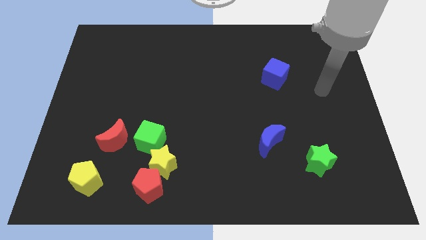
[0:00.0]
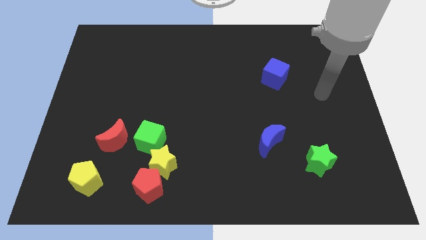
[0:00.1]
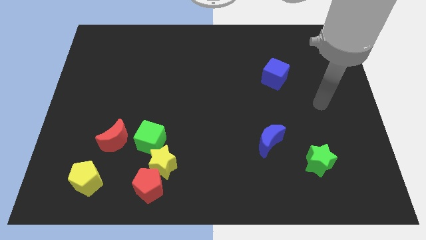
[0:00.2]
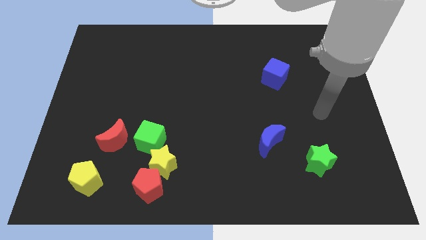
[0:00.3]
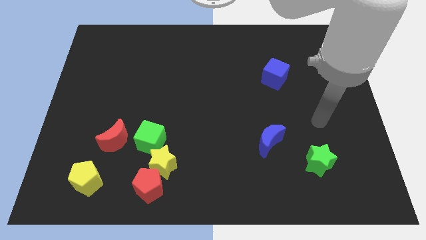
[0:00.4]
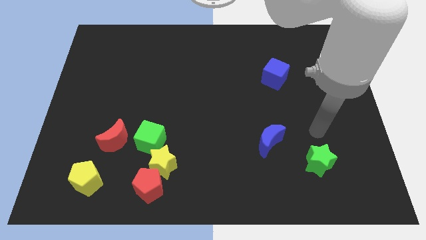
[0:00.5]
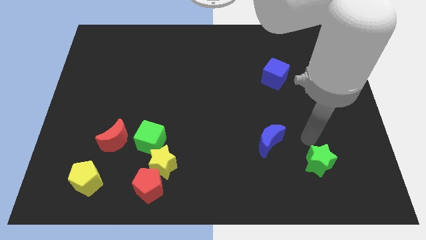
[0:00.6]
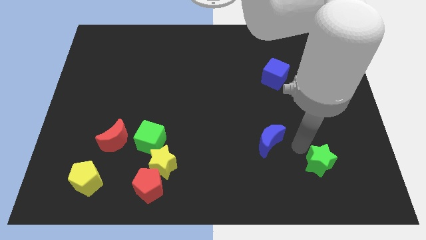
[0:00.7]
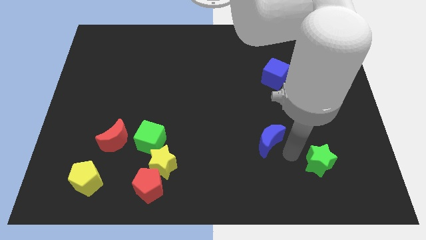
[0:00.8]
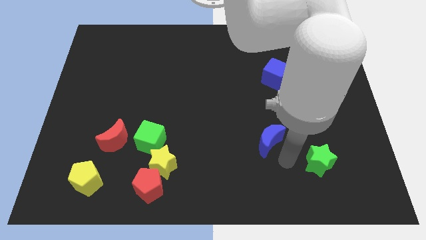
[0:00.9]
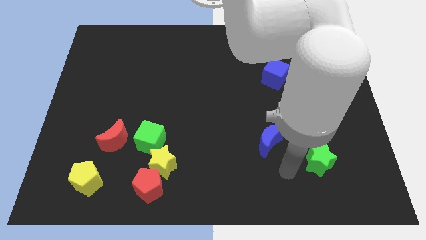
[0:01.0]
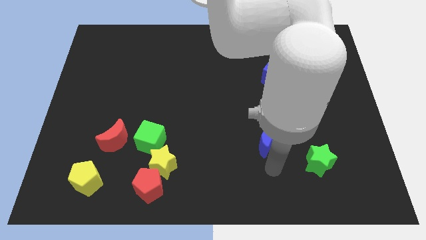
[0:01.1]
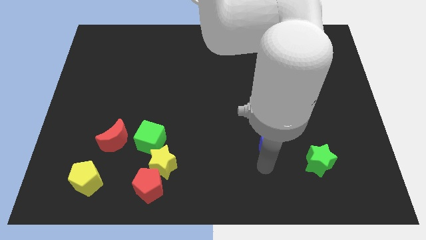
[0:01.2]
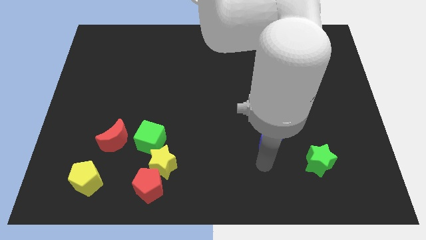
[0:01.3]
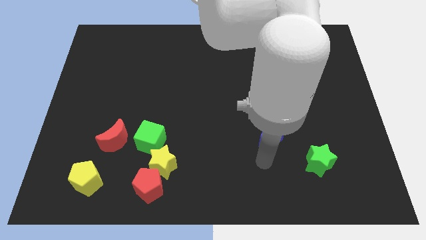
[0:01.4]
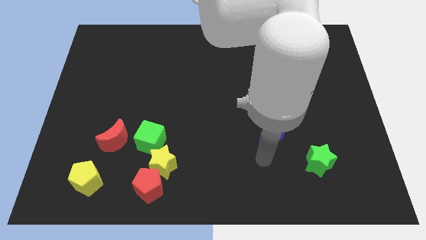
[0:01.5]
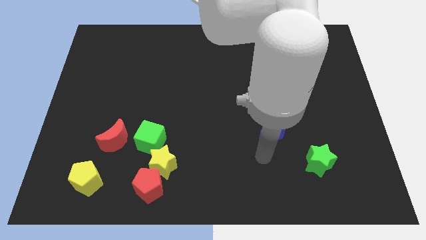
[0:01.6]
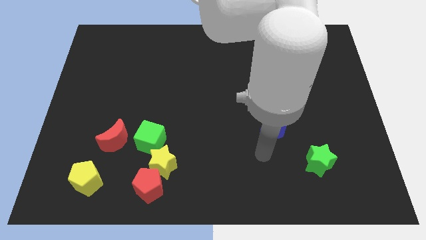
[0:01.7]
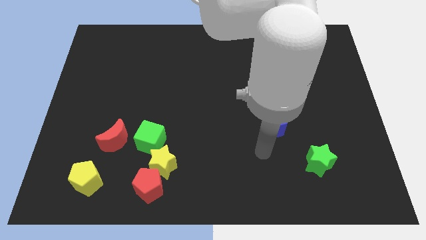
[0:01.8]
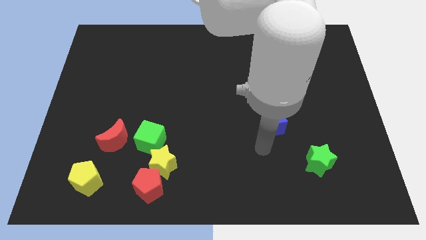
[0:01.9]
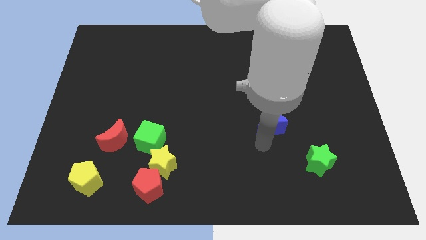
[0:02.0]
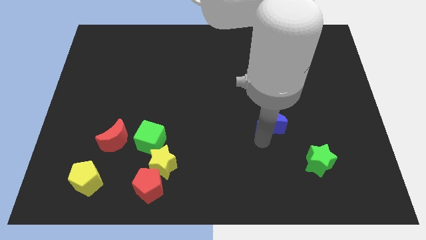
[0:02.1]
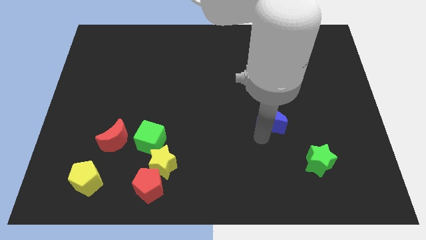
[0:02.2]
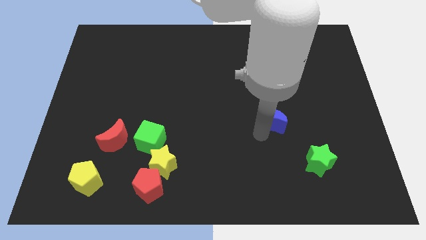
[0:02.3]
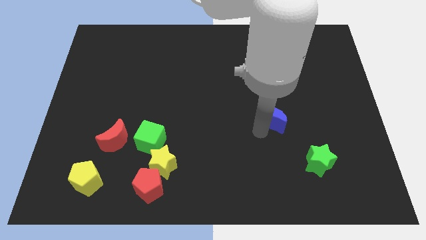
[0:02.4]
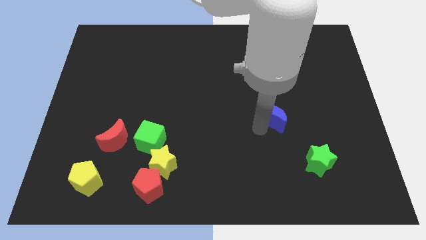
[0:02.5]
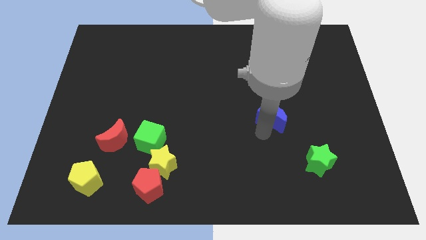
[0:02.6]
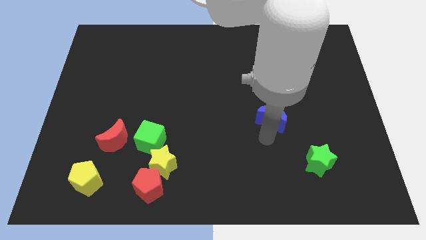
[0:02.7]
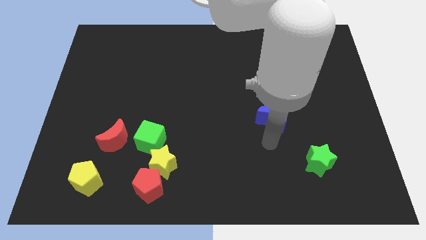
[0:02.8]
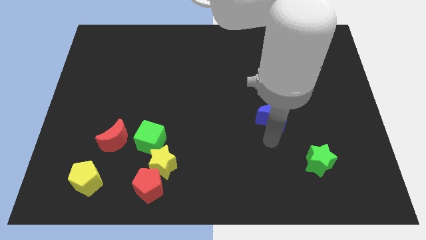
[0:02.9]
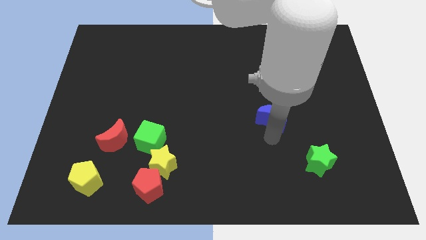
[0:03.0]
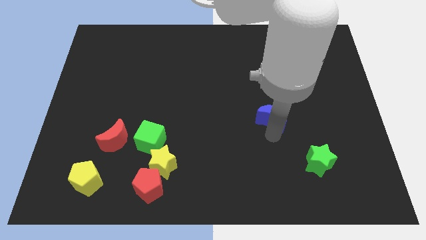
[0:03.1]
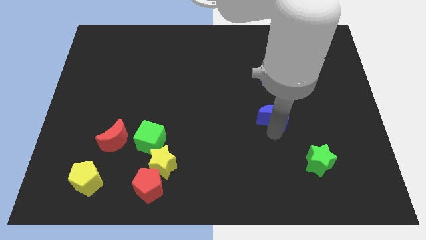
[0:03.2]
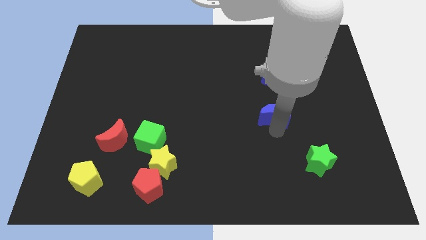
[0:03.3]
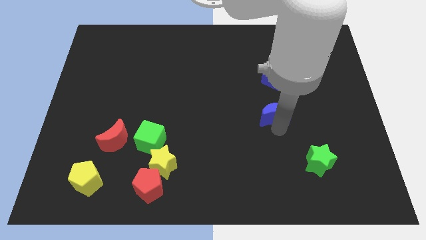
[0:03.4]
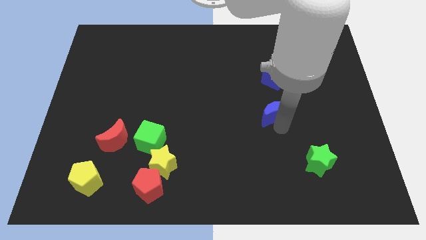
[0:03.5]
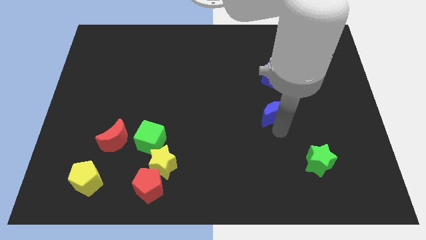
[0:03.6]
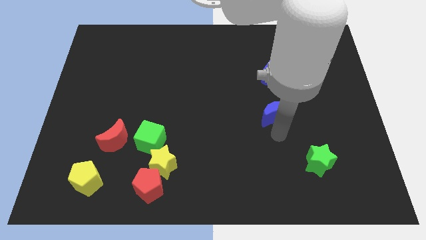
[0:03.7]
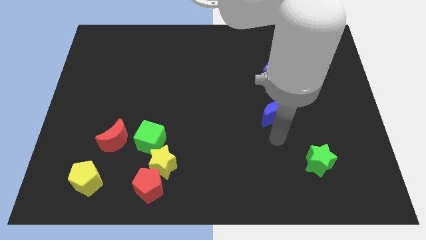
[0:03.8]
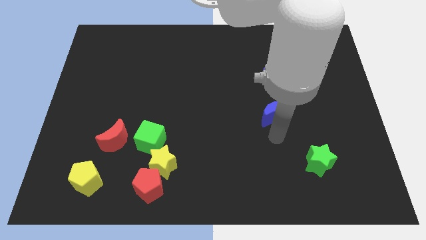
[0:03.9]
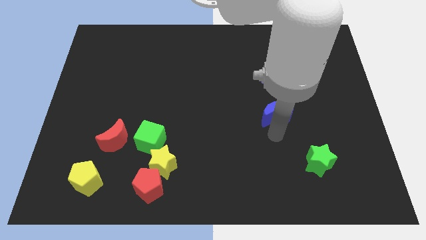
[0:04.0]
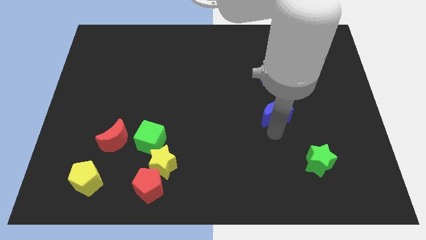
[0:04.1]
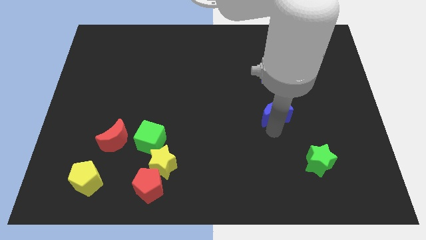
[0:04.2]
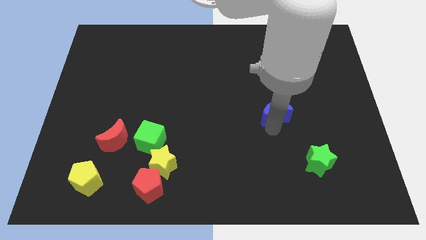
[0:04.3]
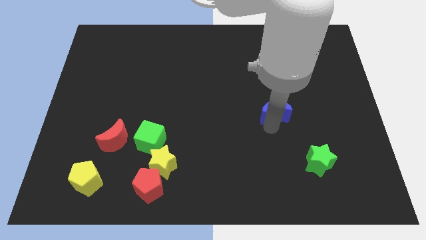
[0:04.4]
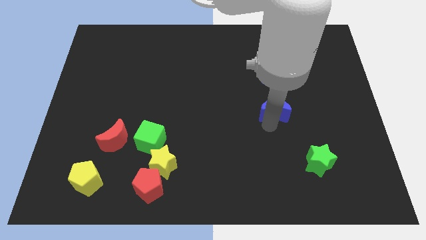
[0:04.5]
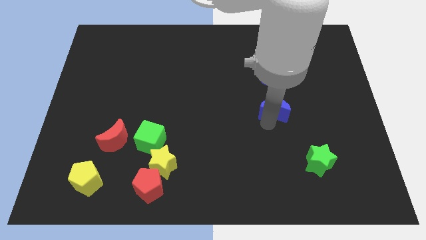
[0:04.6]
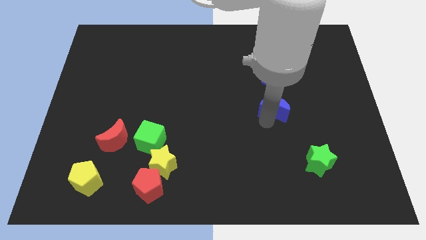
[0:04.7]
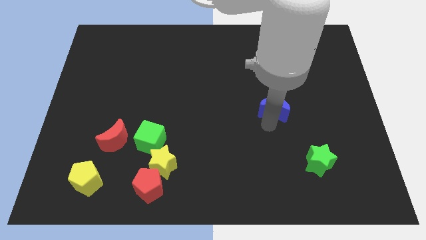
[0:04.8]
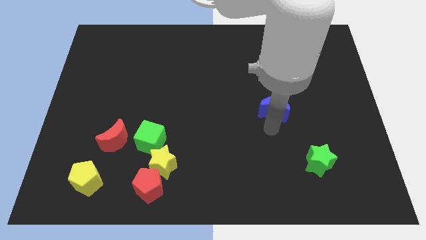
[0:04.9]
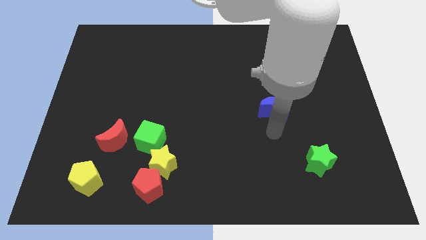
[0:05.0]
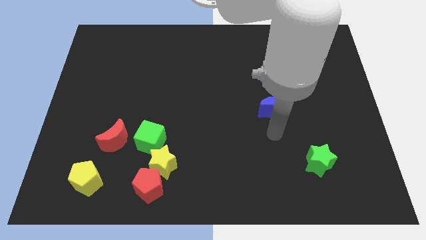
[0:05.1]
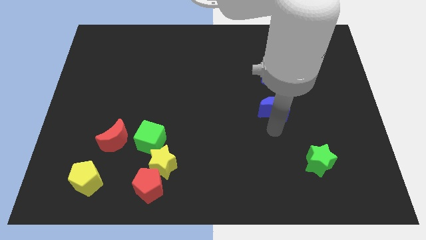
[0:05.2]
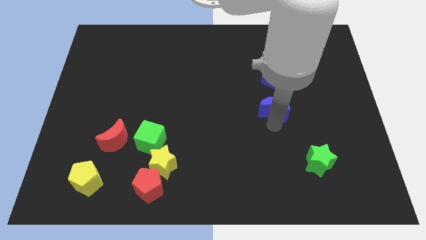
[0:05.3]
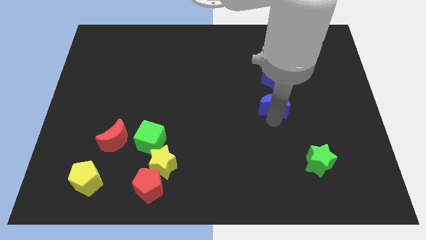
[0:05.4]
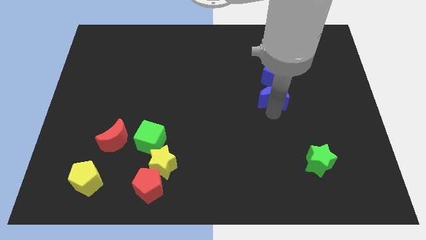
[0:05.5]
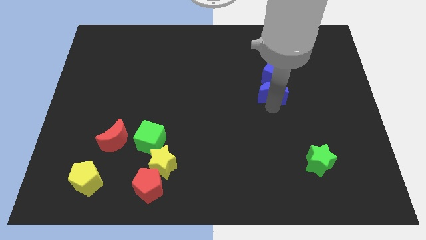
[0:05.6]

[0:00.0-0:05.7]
push the blue moon to the blue cube

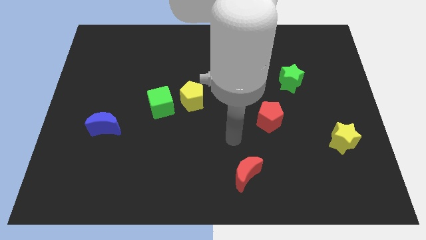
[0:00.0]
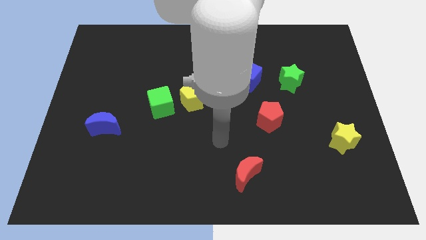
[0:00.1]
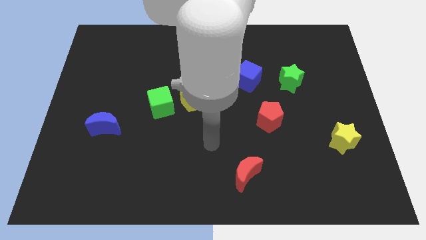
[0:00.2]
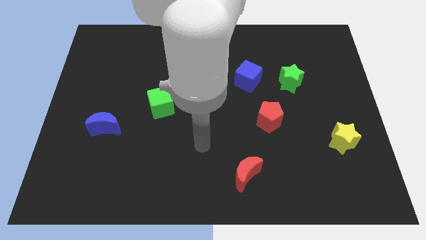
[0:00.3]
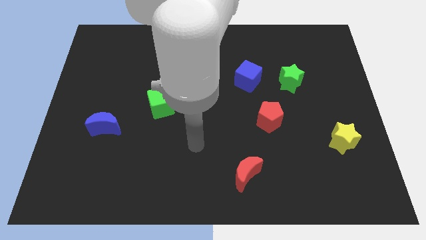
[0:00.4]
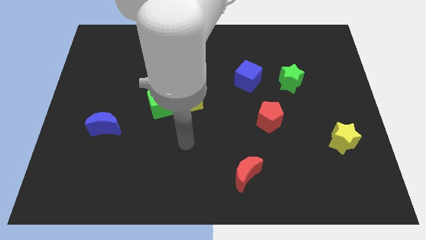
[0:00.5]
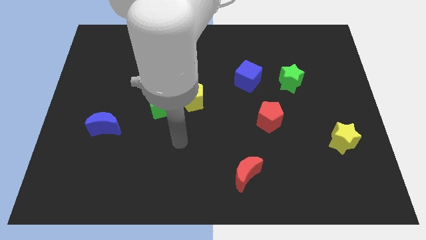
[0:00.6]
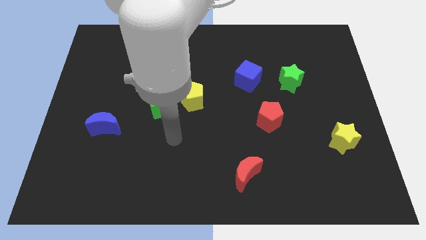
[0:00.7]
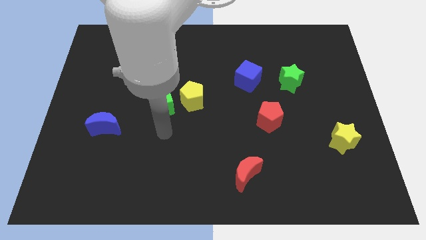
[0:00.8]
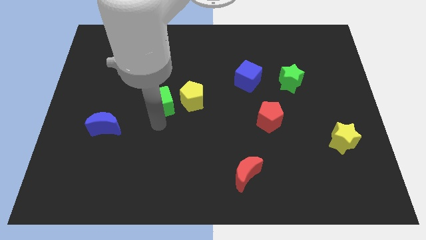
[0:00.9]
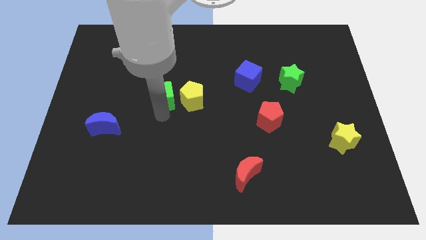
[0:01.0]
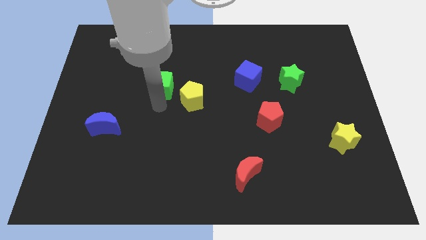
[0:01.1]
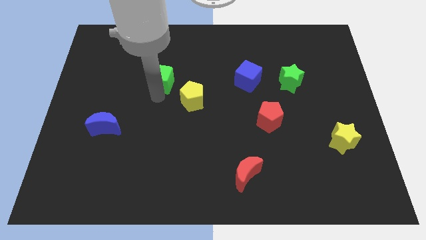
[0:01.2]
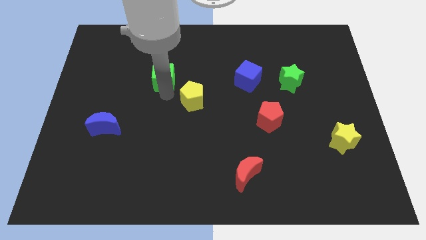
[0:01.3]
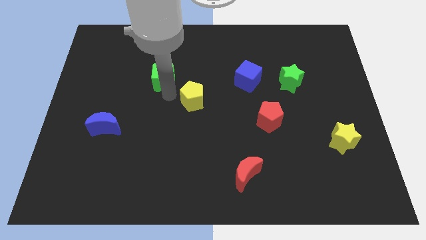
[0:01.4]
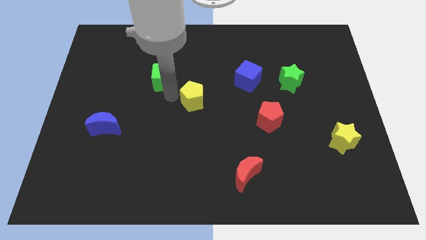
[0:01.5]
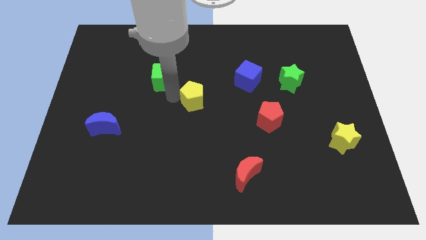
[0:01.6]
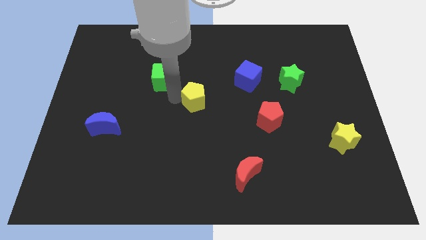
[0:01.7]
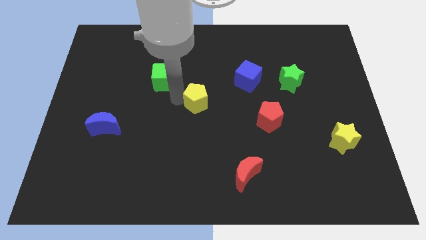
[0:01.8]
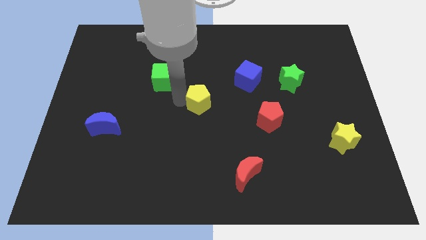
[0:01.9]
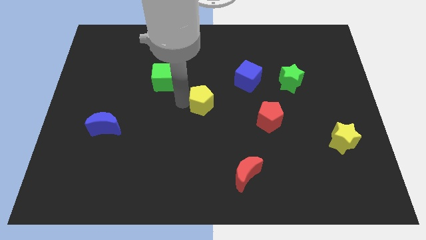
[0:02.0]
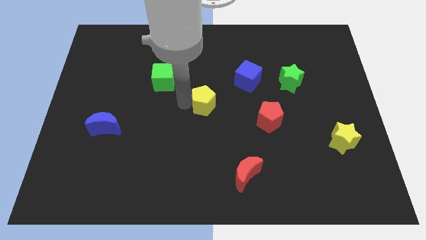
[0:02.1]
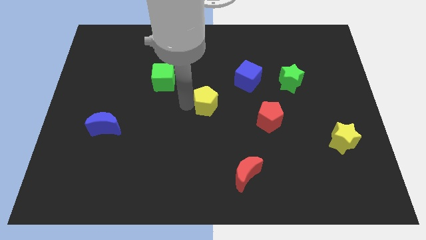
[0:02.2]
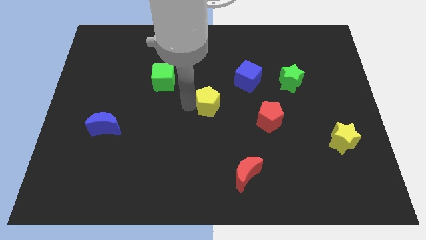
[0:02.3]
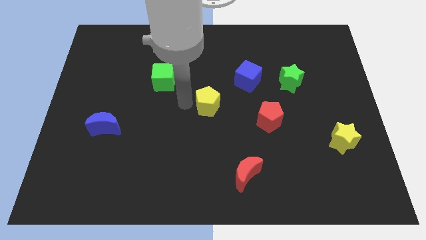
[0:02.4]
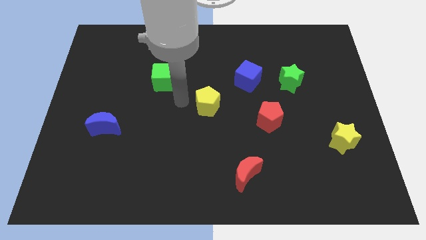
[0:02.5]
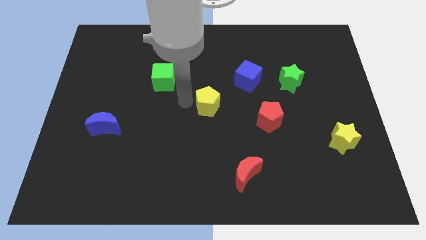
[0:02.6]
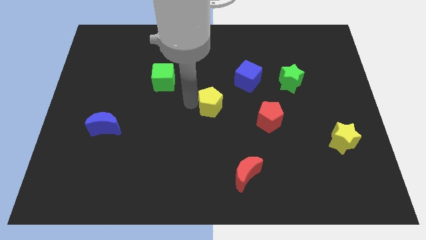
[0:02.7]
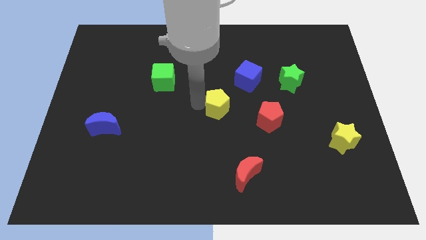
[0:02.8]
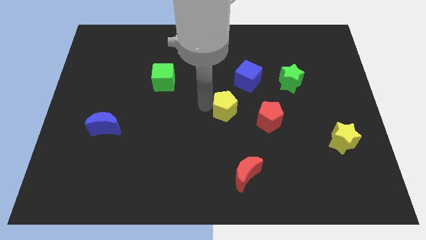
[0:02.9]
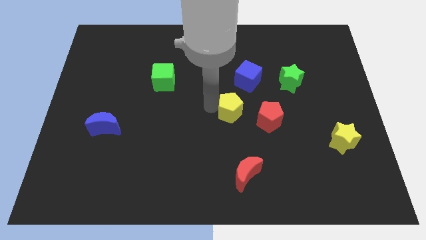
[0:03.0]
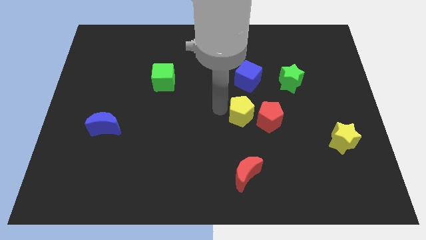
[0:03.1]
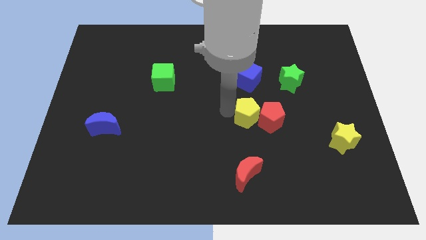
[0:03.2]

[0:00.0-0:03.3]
move the yellow pentagon close to the red pentagon
